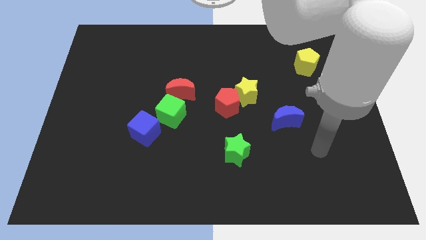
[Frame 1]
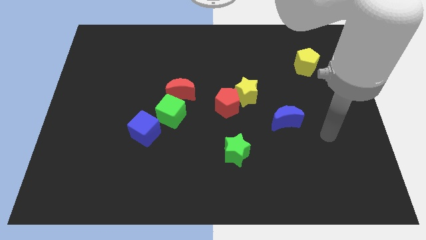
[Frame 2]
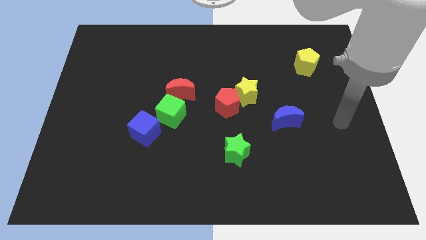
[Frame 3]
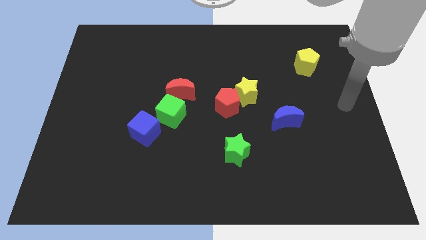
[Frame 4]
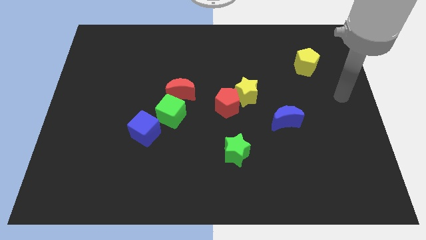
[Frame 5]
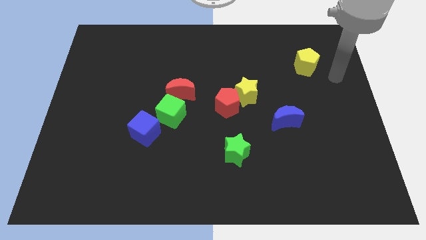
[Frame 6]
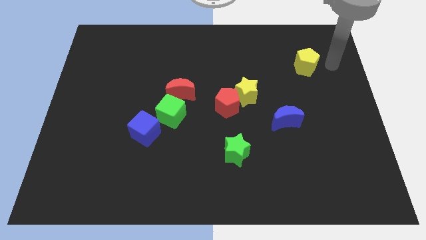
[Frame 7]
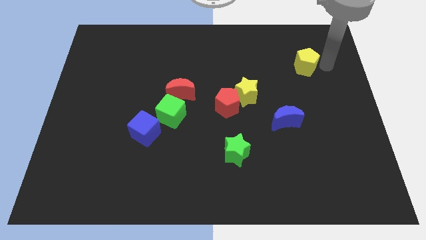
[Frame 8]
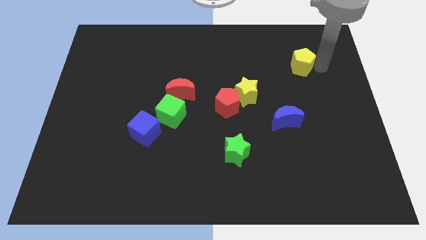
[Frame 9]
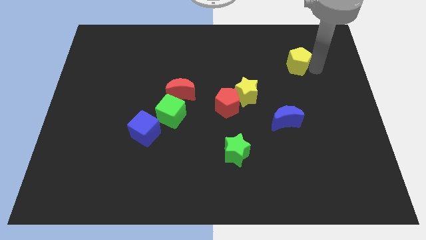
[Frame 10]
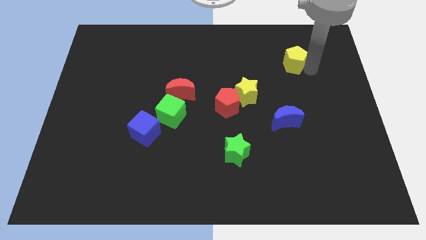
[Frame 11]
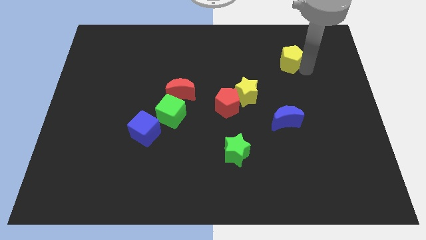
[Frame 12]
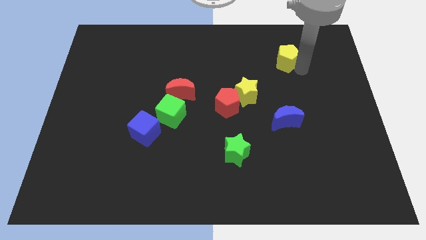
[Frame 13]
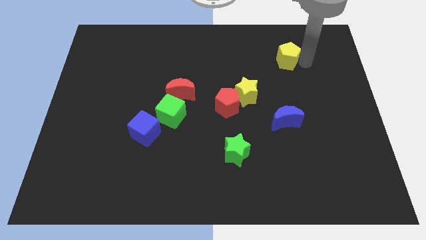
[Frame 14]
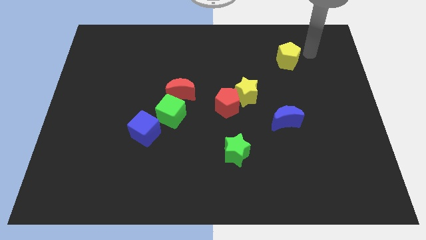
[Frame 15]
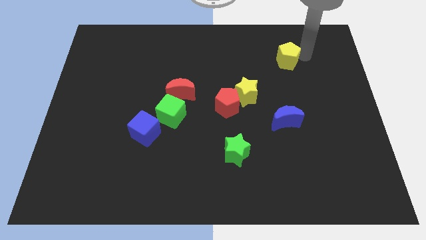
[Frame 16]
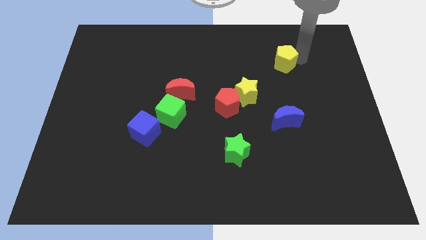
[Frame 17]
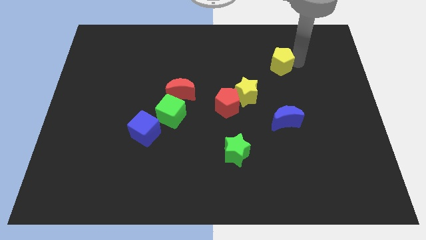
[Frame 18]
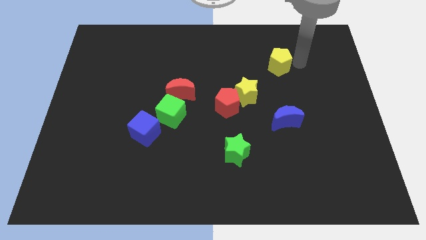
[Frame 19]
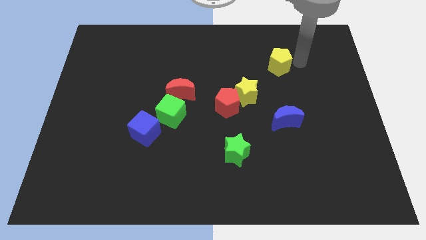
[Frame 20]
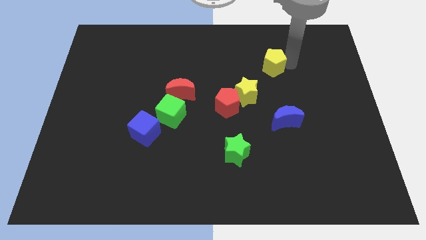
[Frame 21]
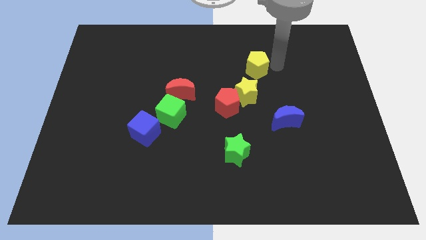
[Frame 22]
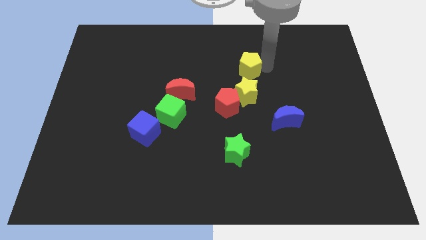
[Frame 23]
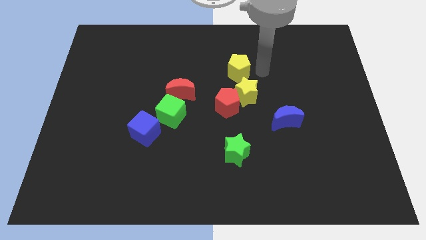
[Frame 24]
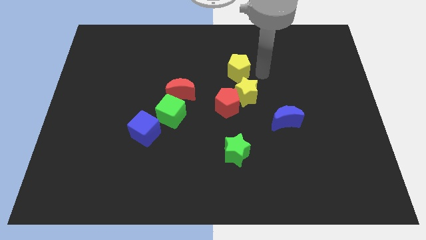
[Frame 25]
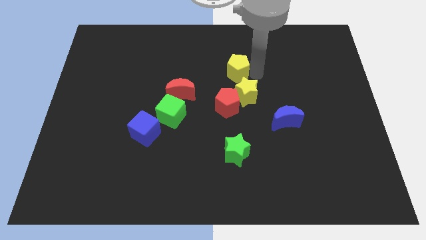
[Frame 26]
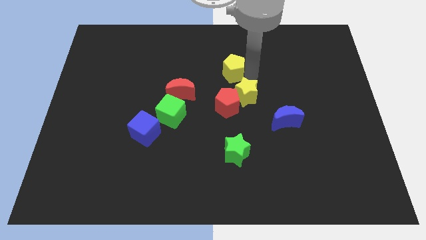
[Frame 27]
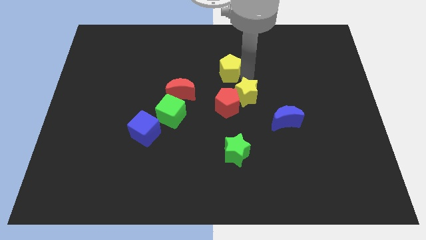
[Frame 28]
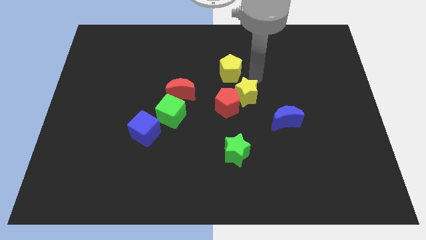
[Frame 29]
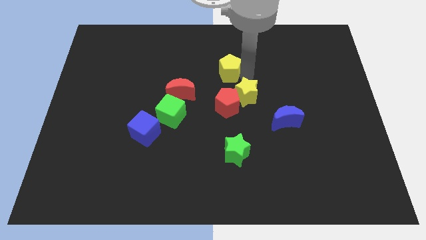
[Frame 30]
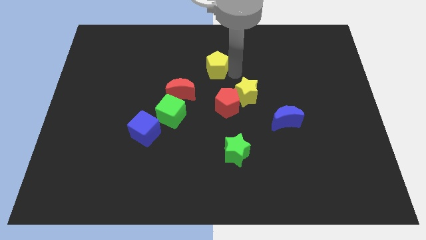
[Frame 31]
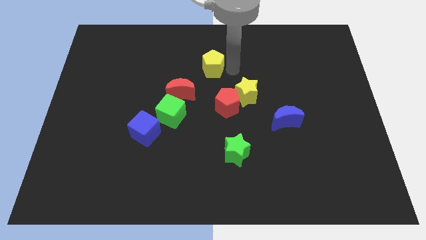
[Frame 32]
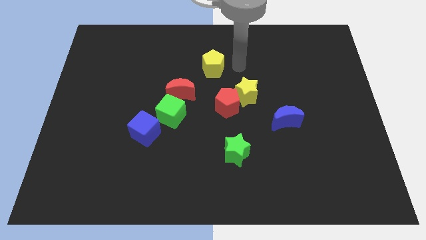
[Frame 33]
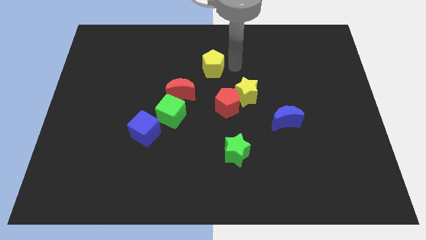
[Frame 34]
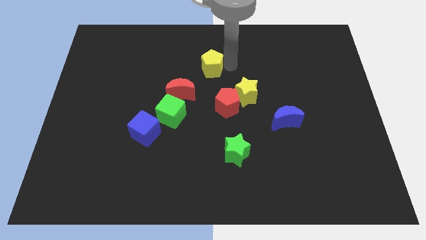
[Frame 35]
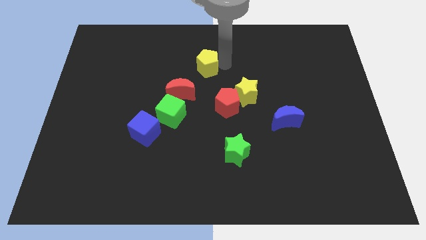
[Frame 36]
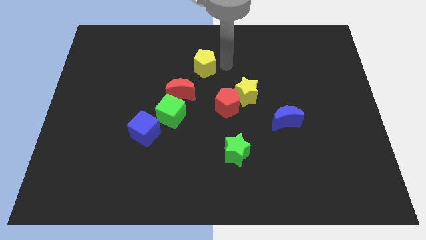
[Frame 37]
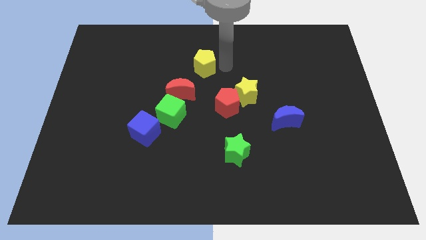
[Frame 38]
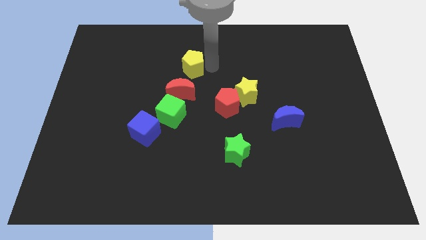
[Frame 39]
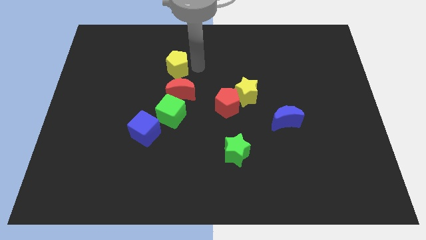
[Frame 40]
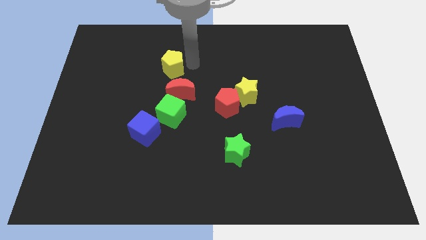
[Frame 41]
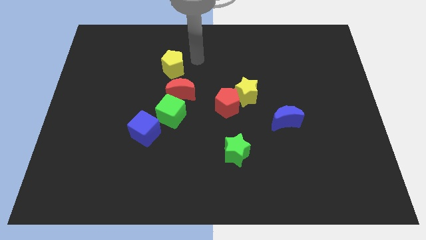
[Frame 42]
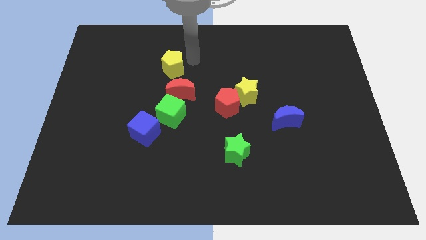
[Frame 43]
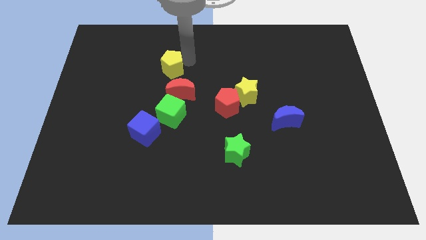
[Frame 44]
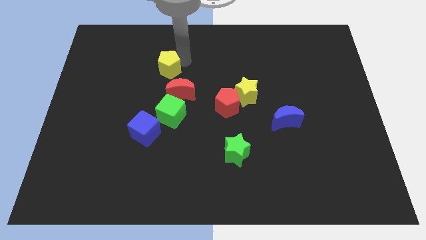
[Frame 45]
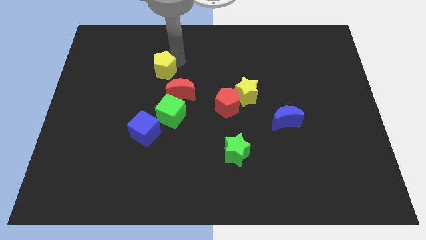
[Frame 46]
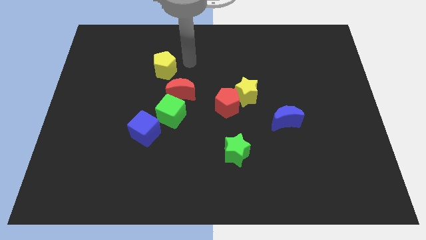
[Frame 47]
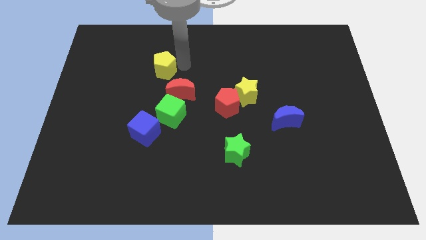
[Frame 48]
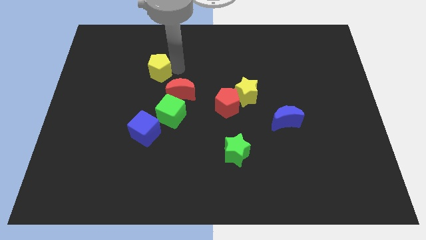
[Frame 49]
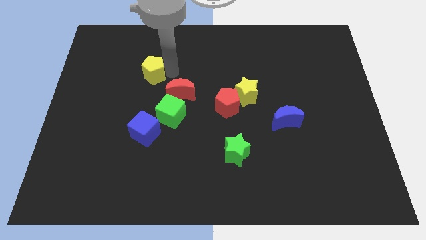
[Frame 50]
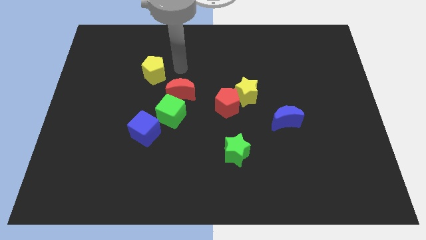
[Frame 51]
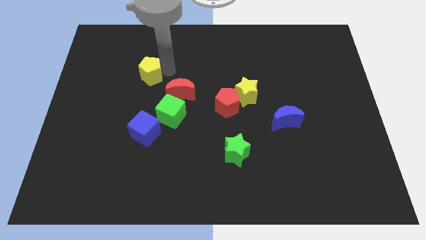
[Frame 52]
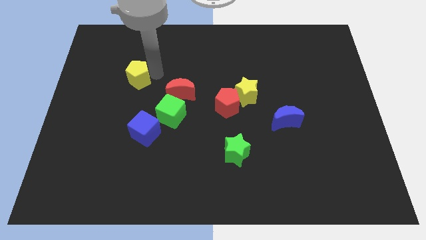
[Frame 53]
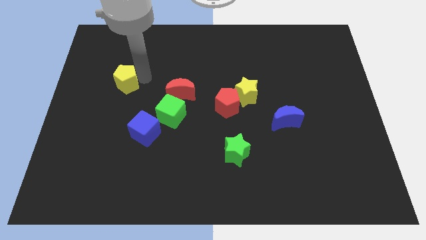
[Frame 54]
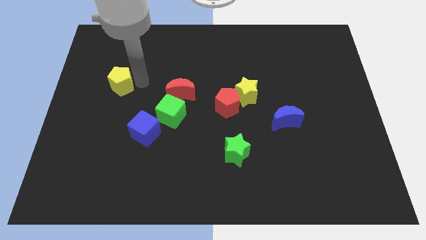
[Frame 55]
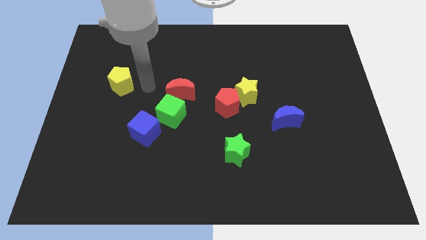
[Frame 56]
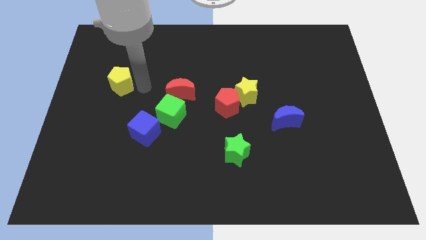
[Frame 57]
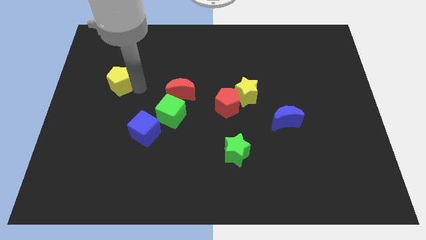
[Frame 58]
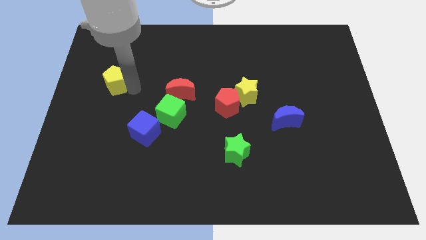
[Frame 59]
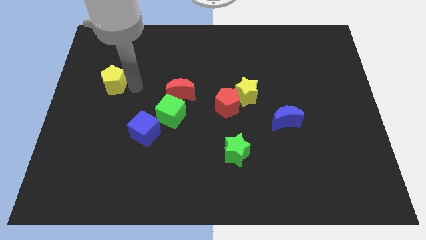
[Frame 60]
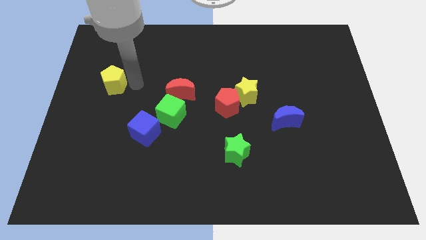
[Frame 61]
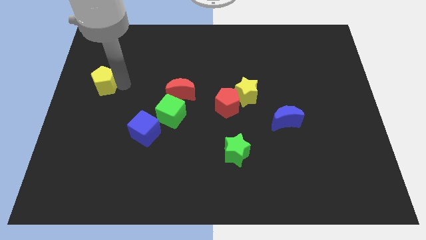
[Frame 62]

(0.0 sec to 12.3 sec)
move the yellow pentagon to the center left
